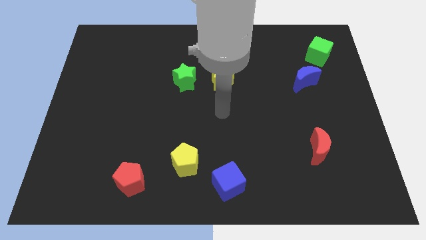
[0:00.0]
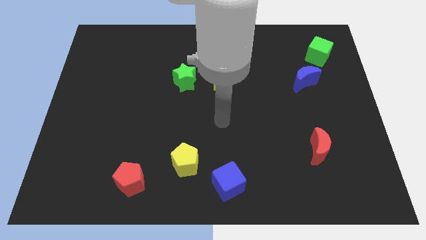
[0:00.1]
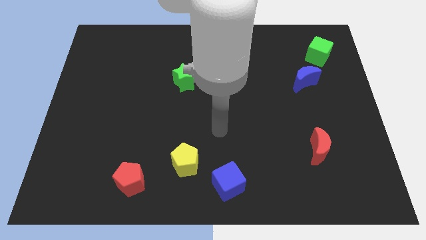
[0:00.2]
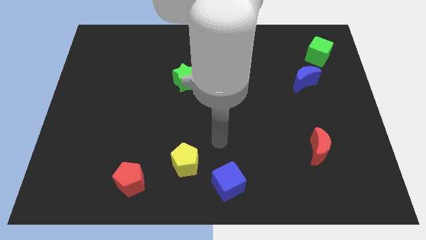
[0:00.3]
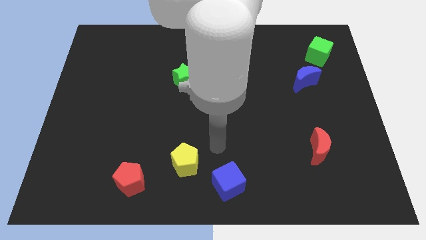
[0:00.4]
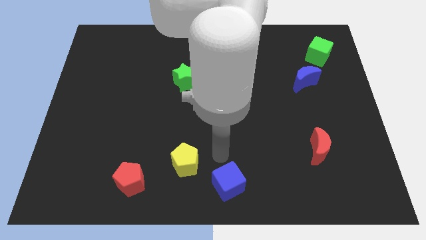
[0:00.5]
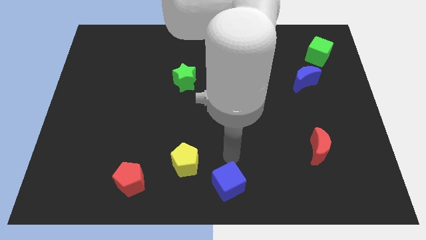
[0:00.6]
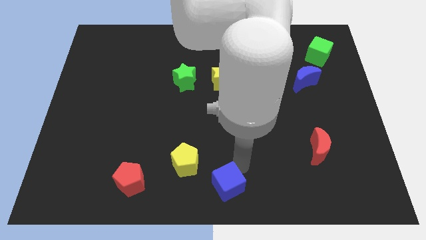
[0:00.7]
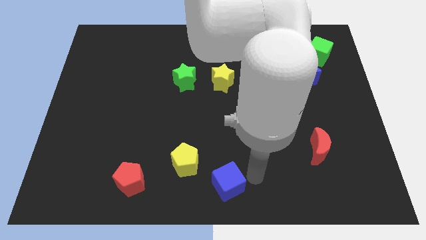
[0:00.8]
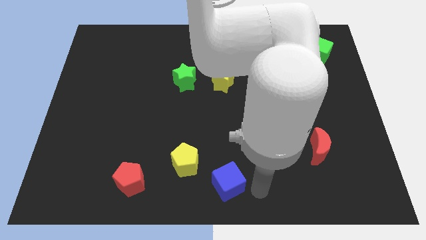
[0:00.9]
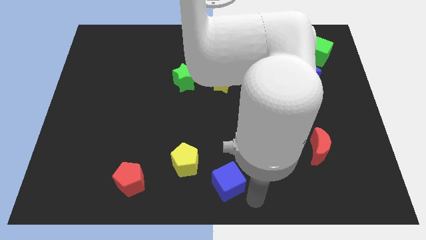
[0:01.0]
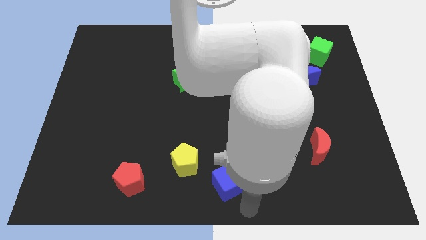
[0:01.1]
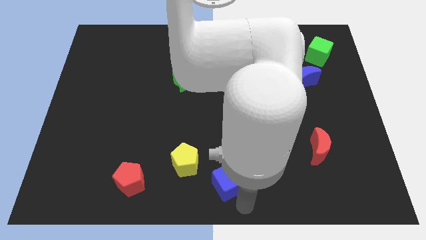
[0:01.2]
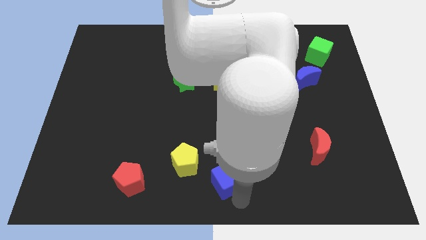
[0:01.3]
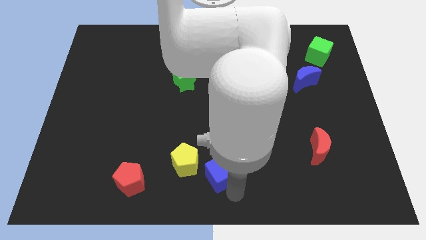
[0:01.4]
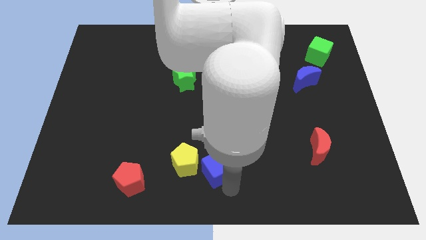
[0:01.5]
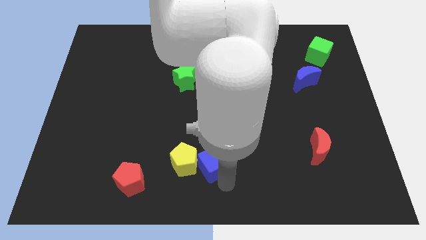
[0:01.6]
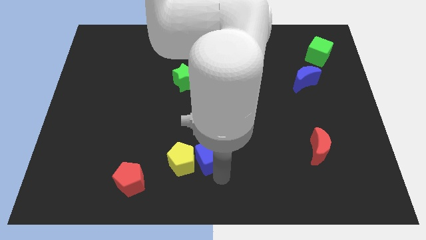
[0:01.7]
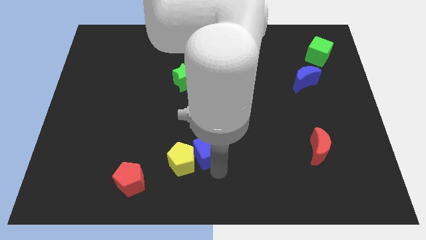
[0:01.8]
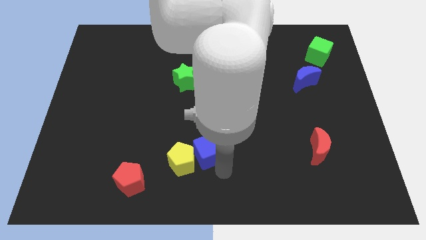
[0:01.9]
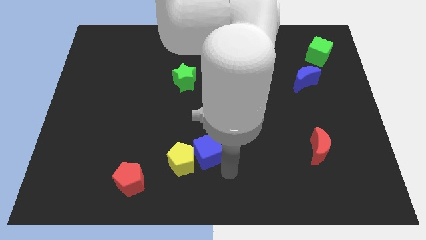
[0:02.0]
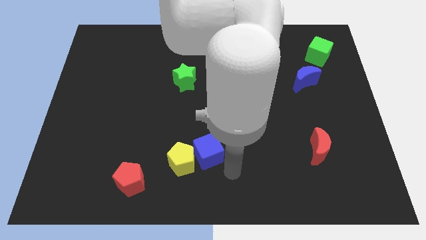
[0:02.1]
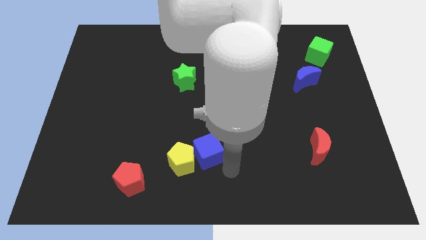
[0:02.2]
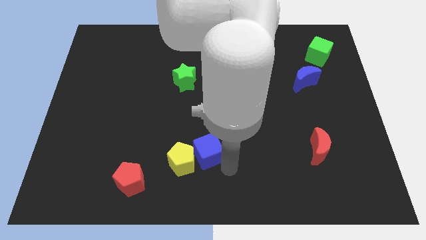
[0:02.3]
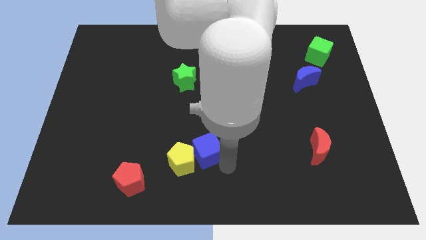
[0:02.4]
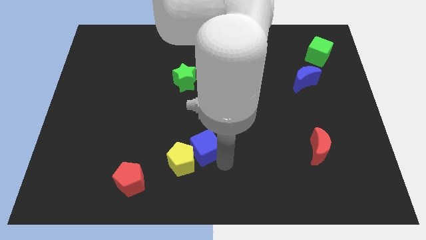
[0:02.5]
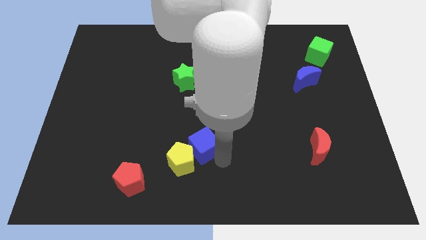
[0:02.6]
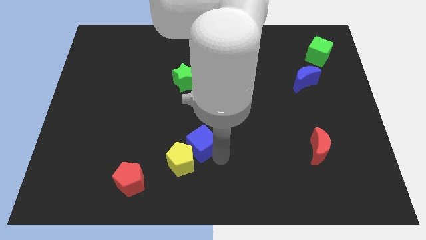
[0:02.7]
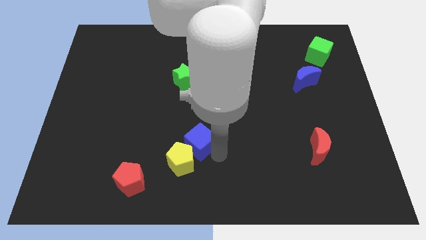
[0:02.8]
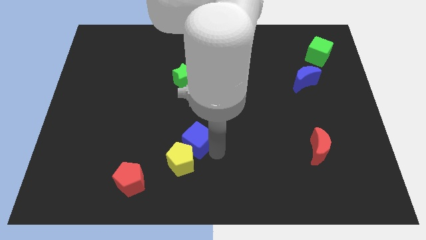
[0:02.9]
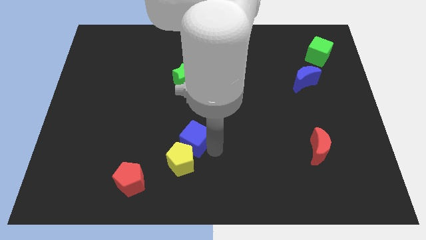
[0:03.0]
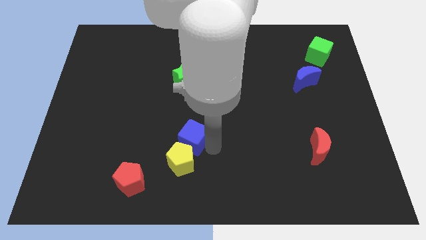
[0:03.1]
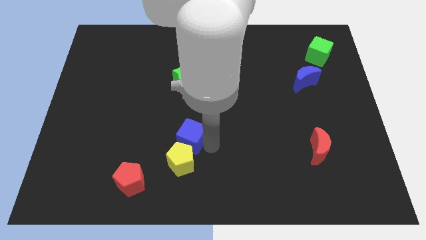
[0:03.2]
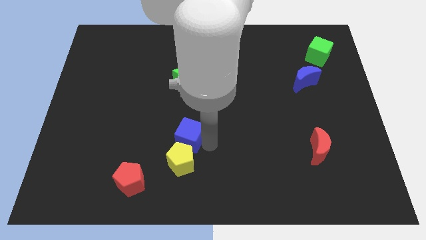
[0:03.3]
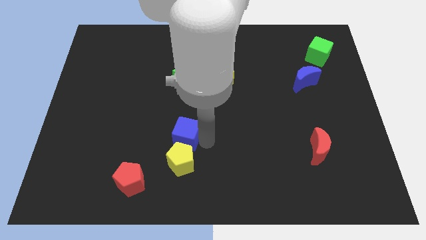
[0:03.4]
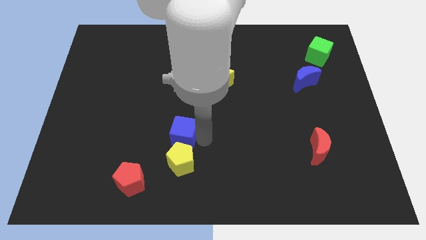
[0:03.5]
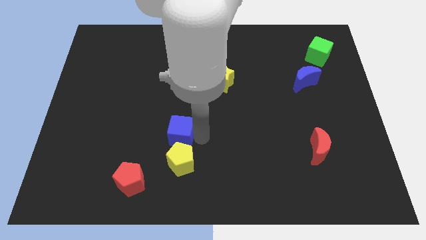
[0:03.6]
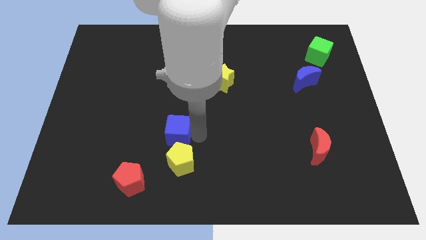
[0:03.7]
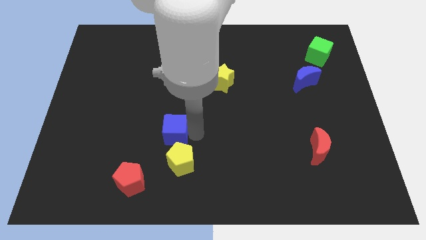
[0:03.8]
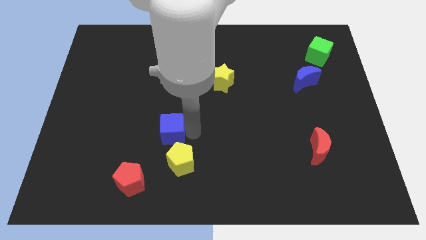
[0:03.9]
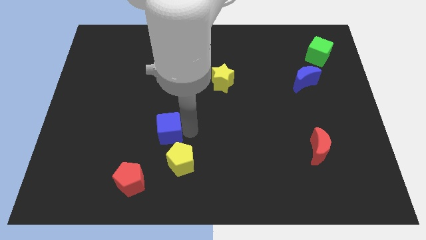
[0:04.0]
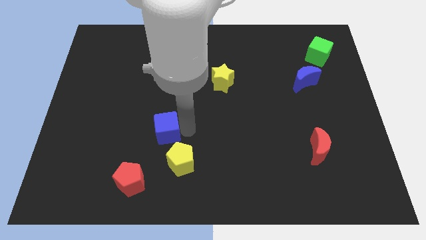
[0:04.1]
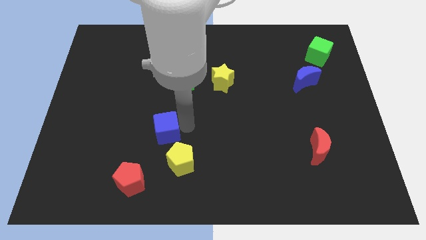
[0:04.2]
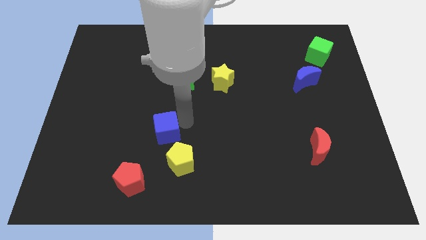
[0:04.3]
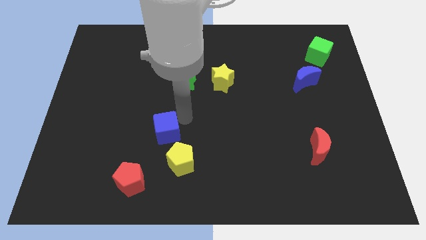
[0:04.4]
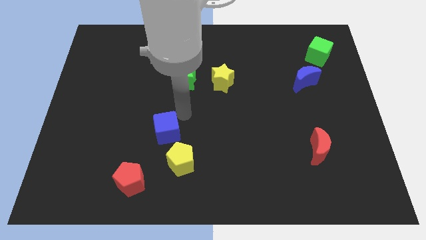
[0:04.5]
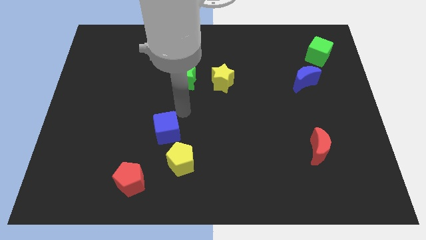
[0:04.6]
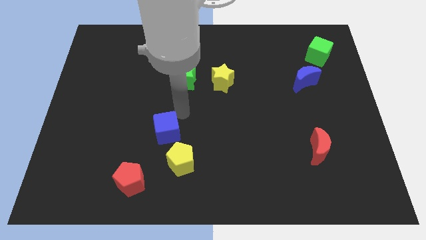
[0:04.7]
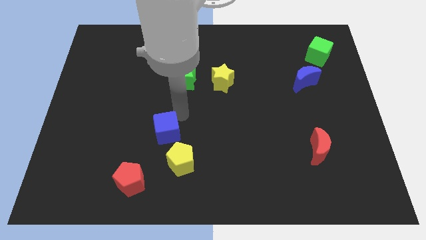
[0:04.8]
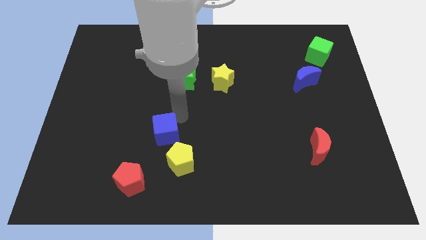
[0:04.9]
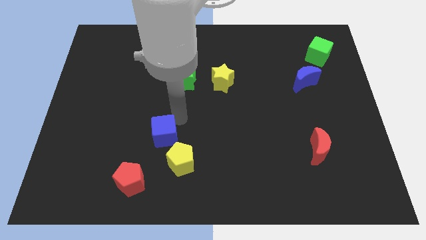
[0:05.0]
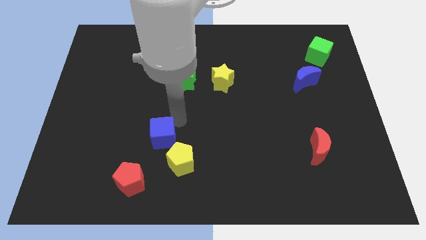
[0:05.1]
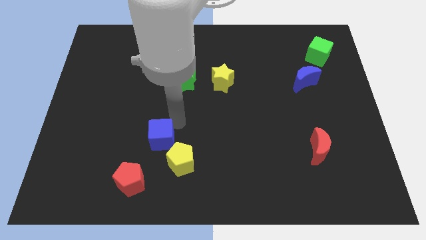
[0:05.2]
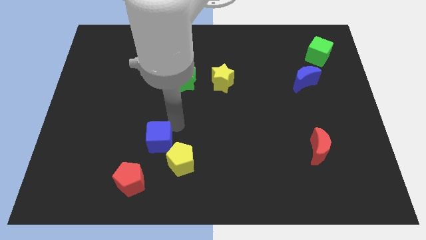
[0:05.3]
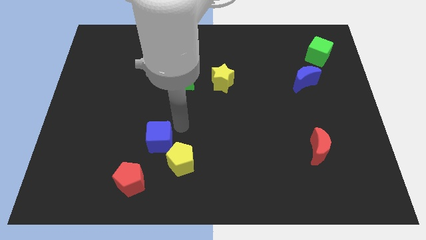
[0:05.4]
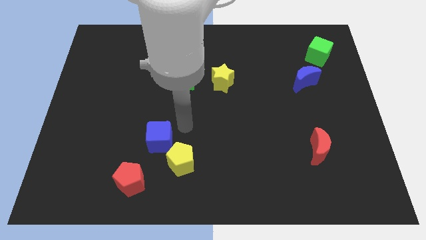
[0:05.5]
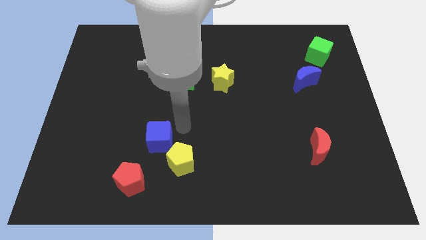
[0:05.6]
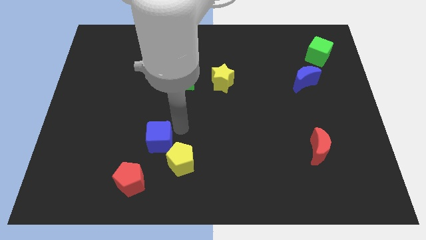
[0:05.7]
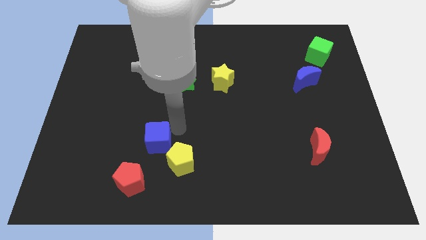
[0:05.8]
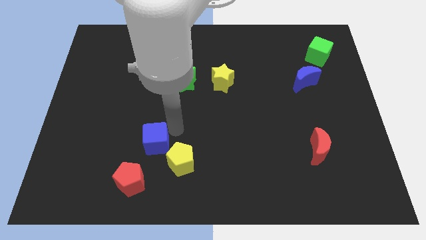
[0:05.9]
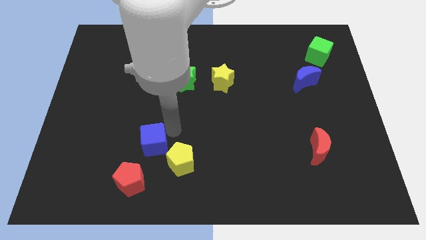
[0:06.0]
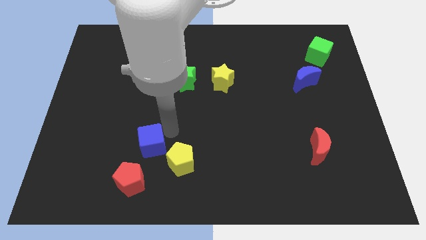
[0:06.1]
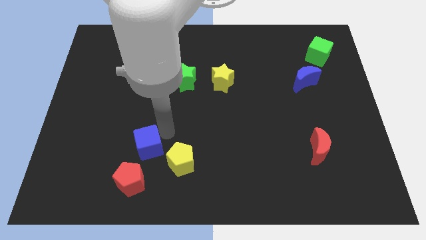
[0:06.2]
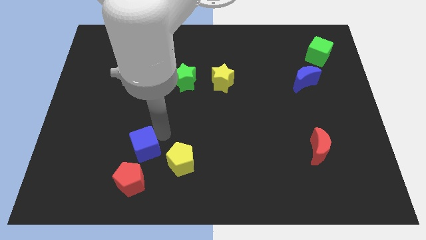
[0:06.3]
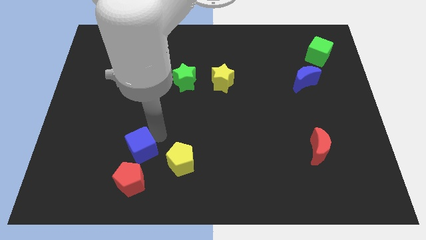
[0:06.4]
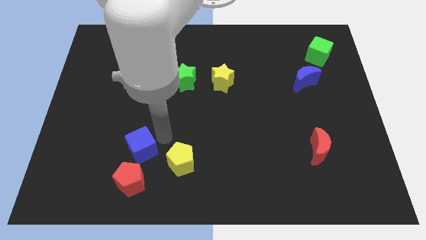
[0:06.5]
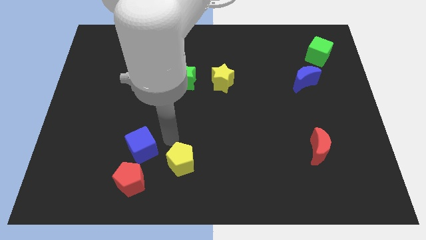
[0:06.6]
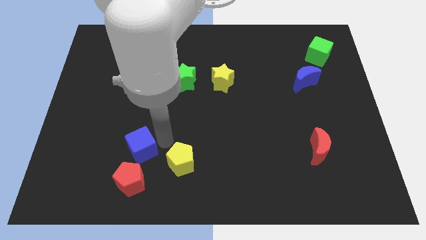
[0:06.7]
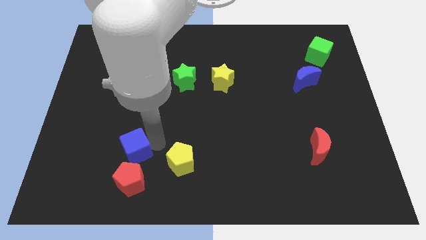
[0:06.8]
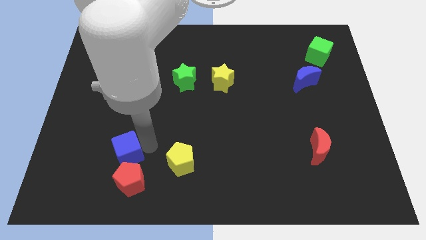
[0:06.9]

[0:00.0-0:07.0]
put the blue cube to the top left of the red pentagon

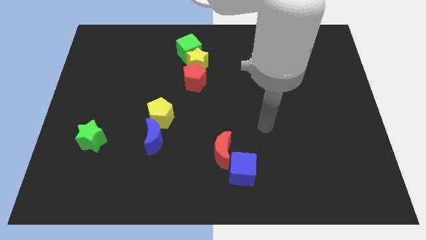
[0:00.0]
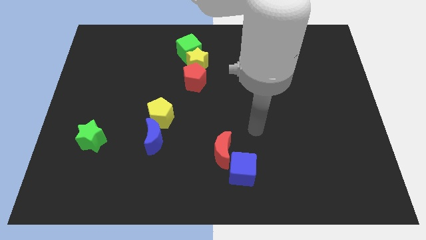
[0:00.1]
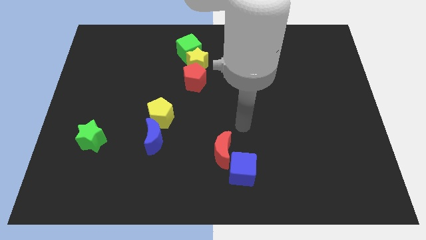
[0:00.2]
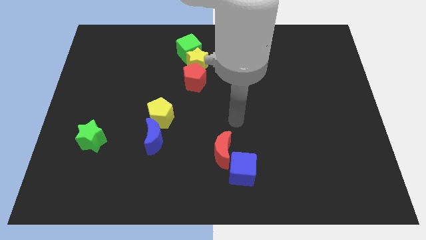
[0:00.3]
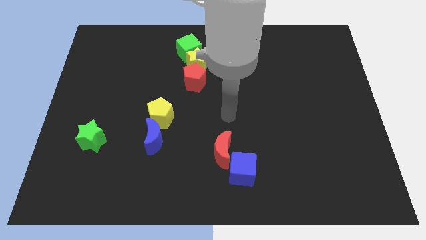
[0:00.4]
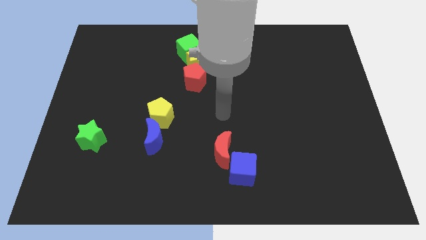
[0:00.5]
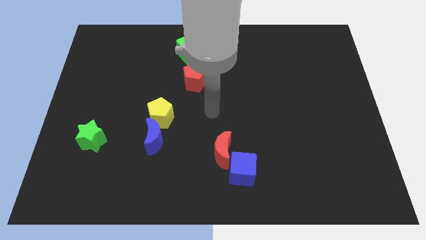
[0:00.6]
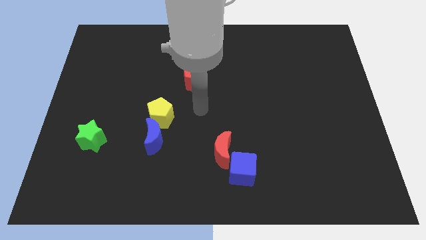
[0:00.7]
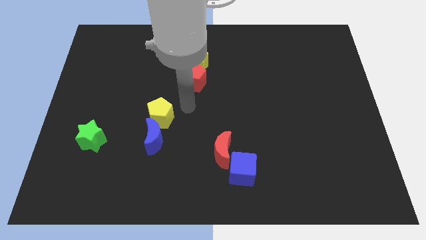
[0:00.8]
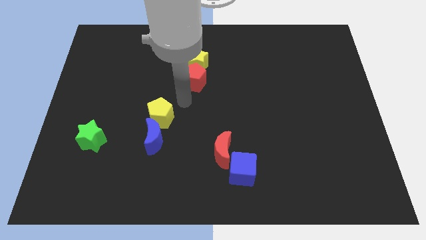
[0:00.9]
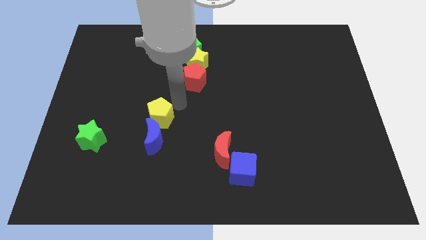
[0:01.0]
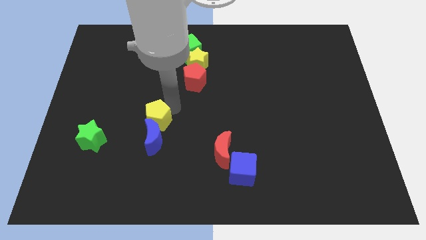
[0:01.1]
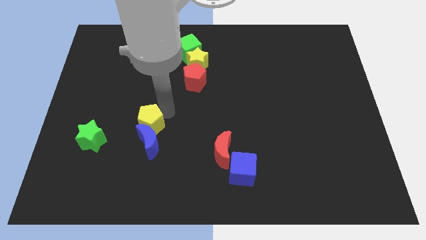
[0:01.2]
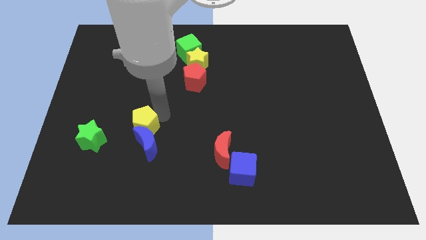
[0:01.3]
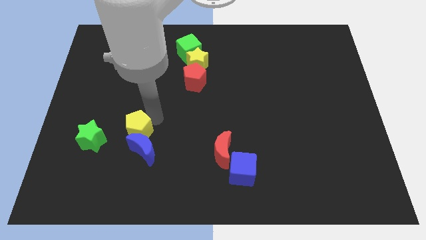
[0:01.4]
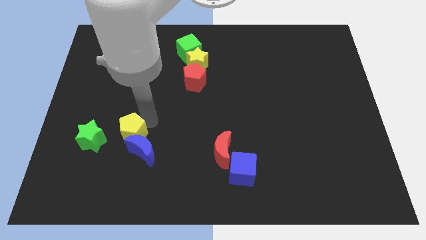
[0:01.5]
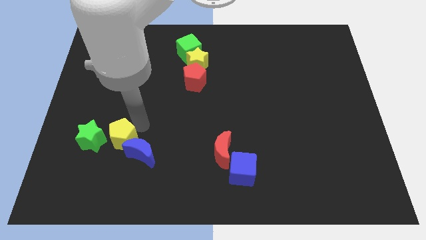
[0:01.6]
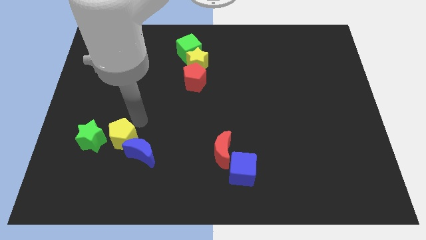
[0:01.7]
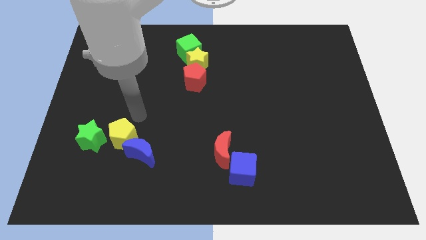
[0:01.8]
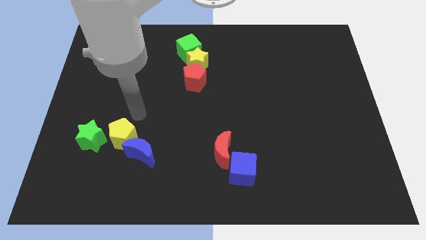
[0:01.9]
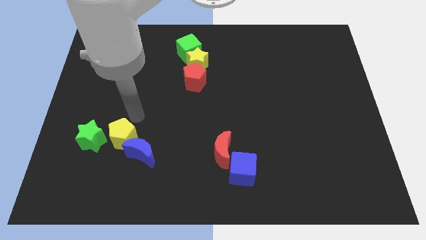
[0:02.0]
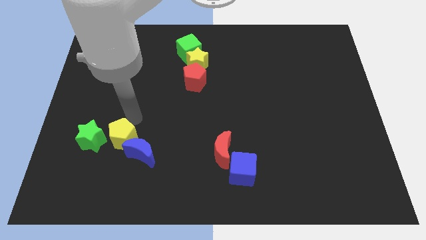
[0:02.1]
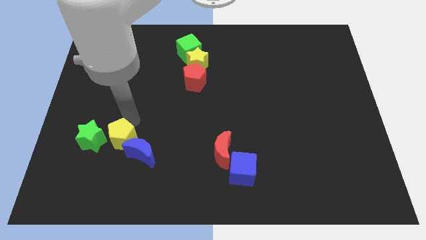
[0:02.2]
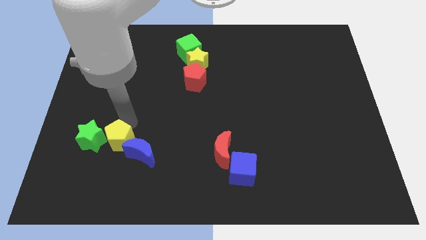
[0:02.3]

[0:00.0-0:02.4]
push the yellow pentagon to the bottom right side of the green star
